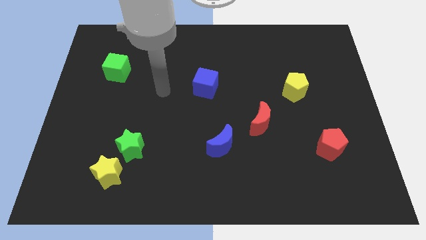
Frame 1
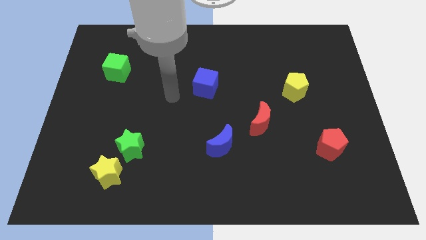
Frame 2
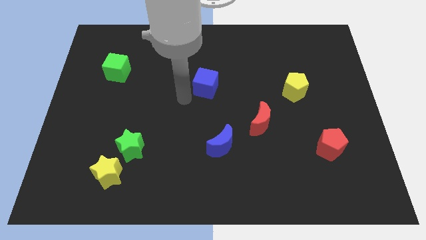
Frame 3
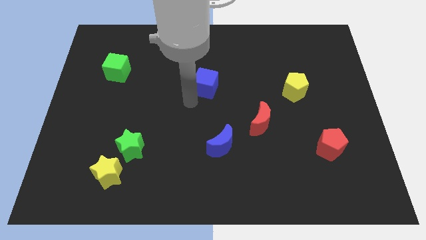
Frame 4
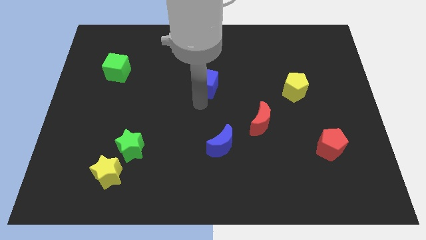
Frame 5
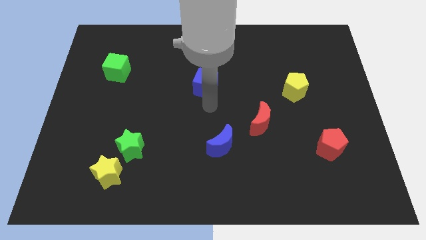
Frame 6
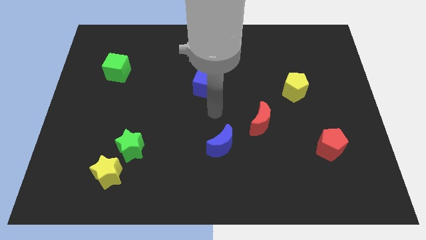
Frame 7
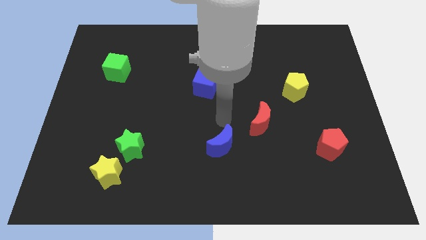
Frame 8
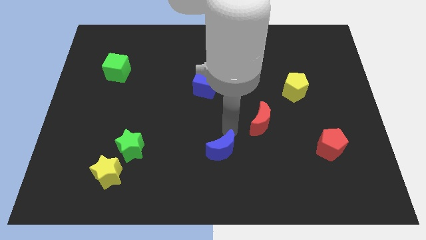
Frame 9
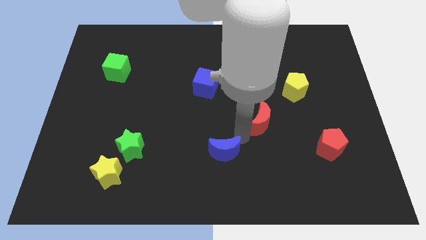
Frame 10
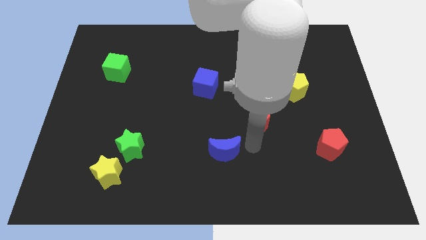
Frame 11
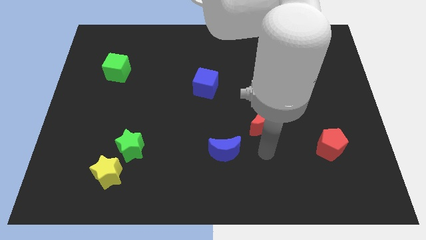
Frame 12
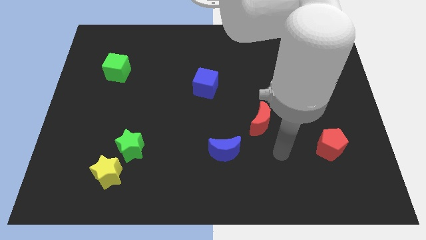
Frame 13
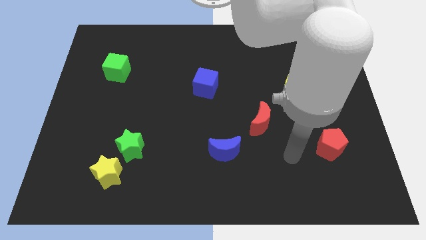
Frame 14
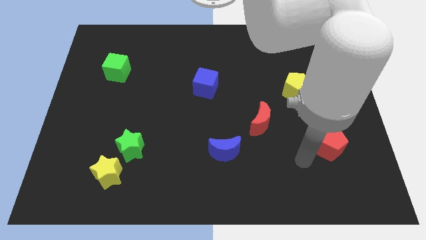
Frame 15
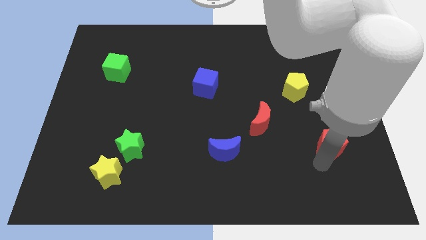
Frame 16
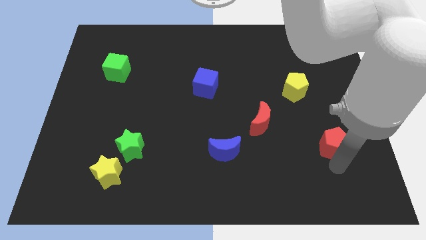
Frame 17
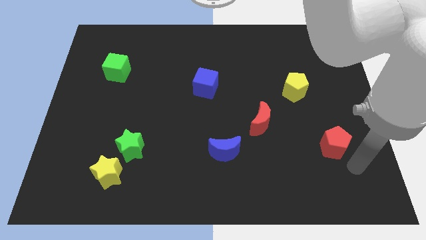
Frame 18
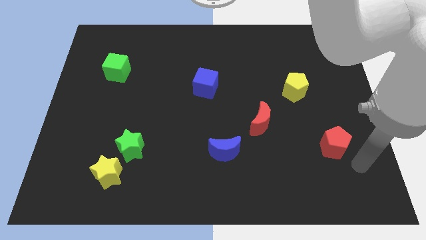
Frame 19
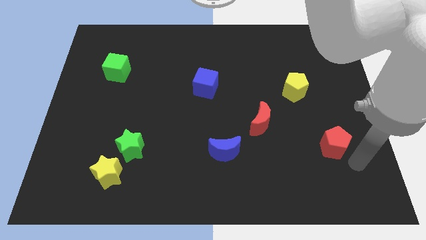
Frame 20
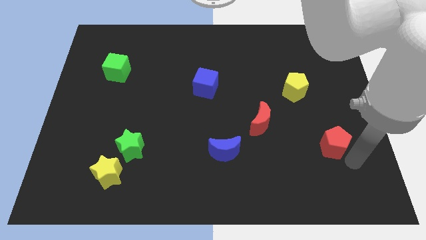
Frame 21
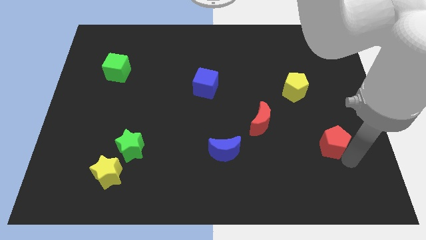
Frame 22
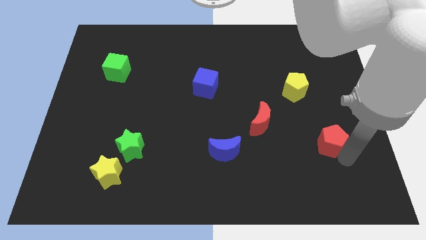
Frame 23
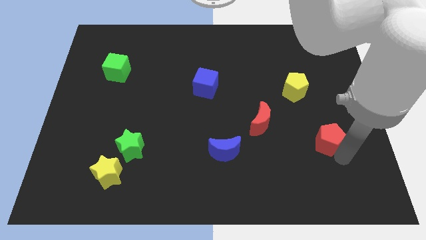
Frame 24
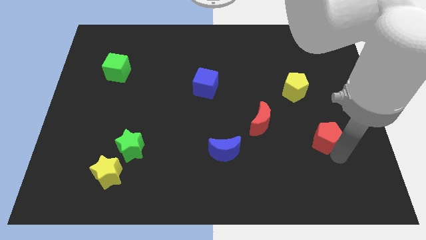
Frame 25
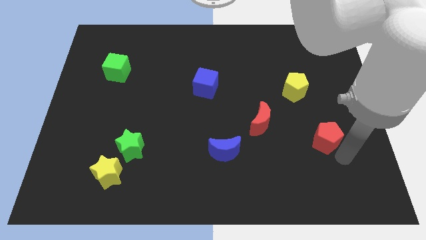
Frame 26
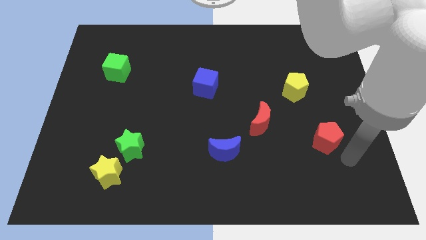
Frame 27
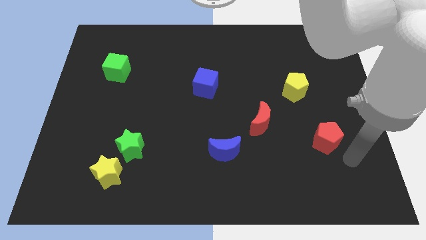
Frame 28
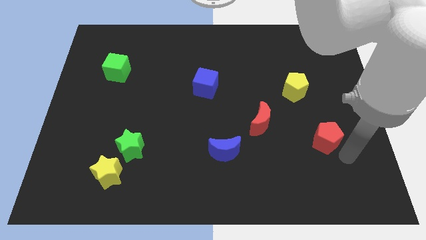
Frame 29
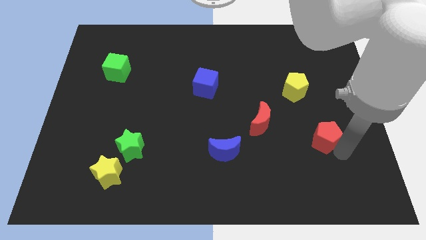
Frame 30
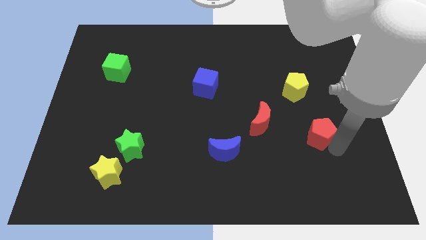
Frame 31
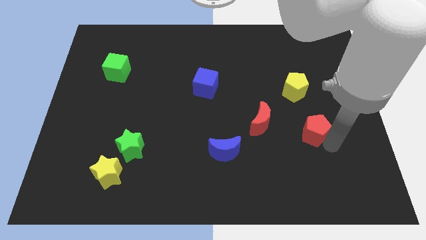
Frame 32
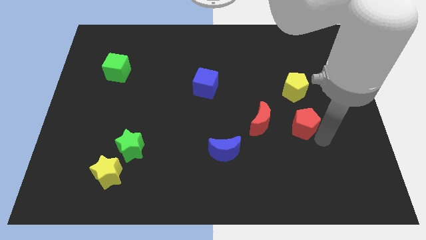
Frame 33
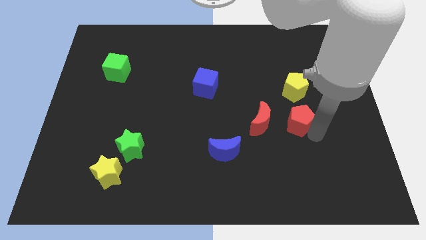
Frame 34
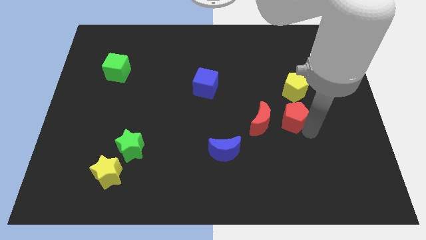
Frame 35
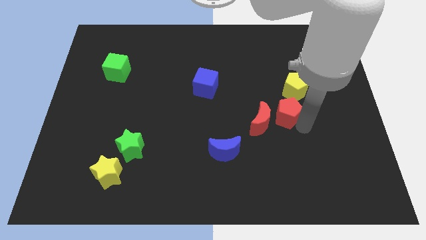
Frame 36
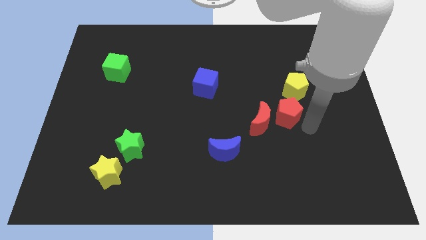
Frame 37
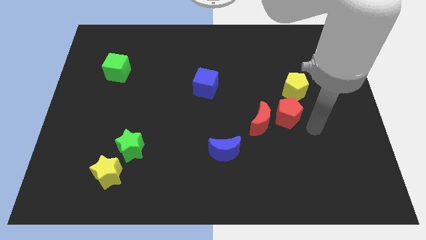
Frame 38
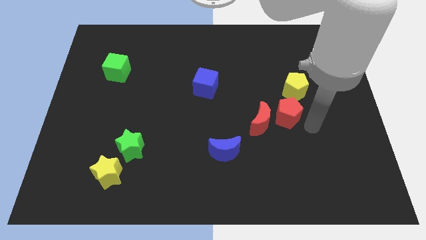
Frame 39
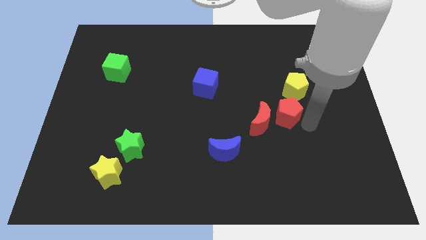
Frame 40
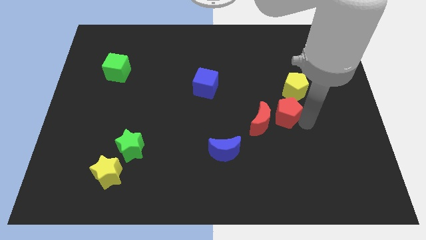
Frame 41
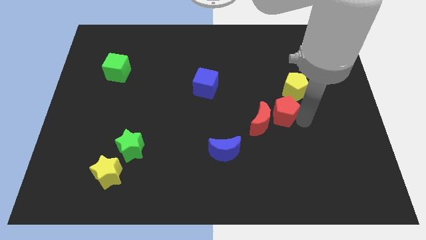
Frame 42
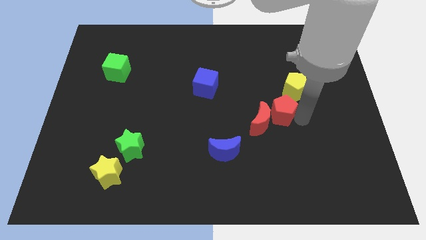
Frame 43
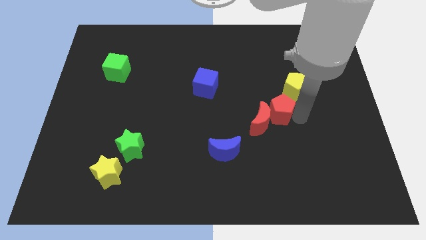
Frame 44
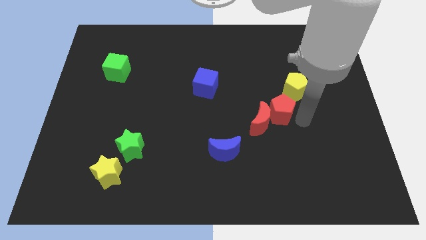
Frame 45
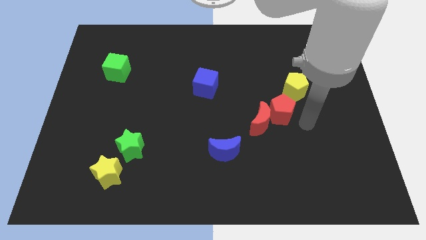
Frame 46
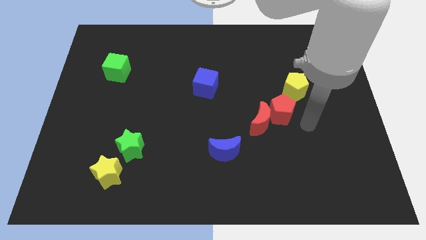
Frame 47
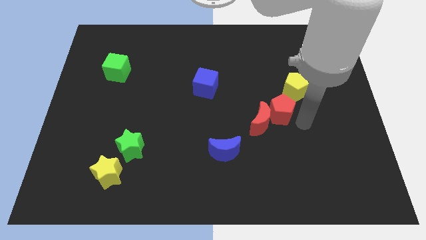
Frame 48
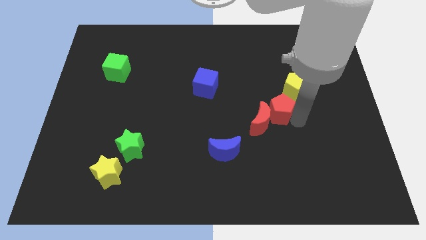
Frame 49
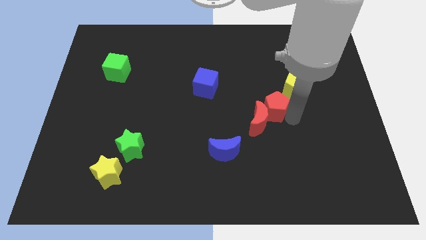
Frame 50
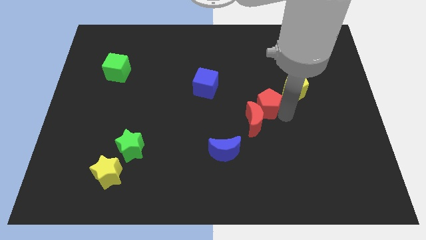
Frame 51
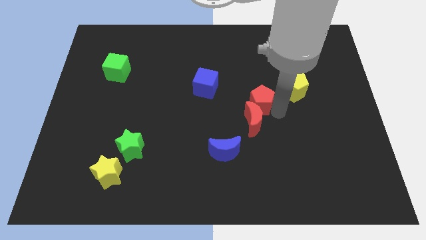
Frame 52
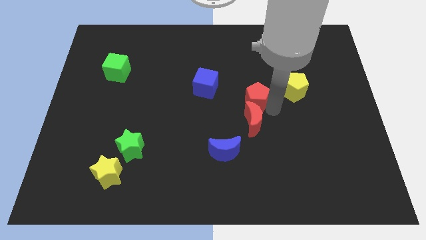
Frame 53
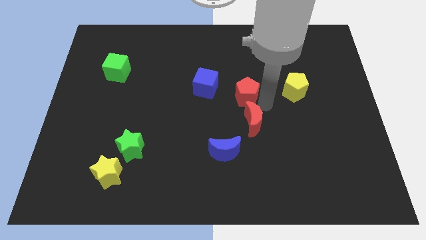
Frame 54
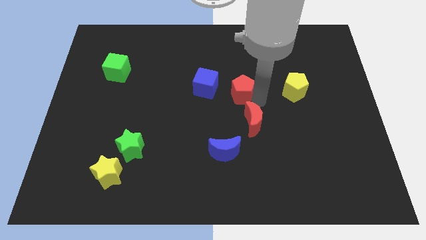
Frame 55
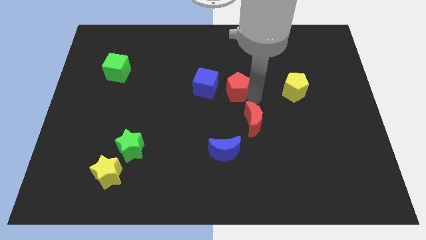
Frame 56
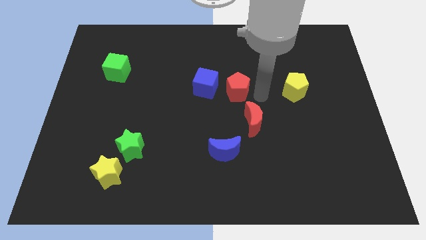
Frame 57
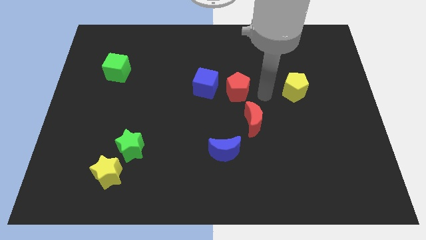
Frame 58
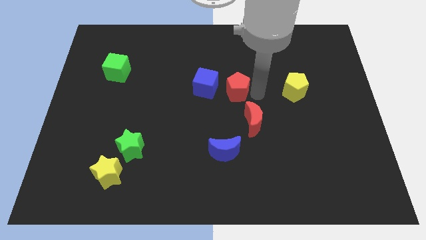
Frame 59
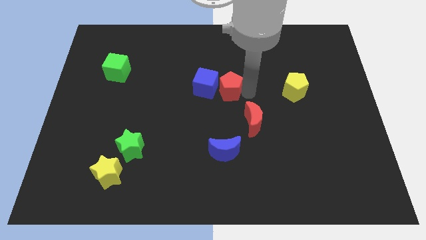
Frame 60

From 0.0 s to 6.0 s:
push the red pentagon next to the blue cube

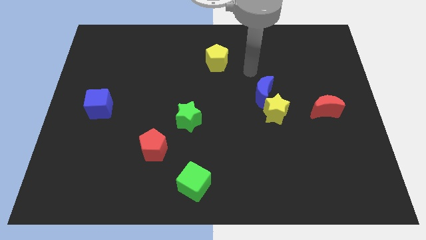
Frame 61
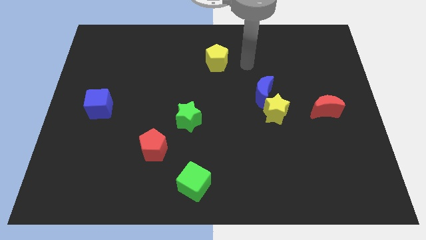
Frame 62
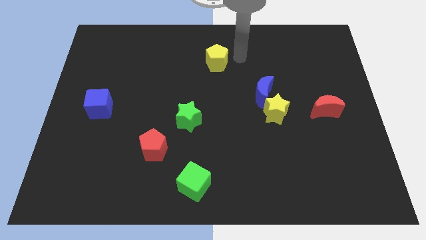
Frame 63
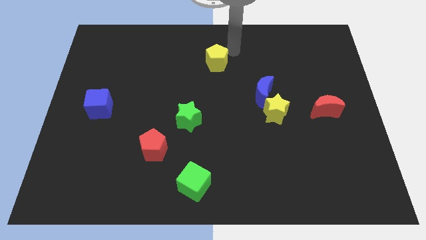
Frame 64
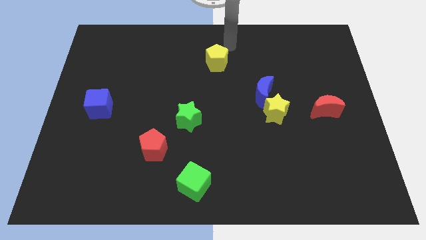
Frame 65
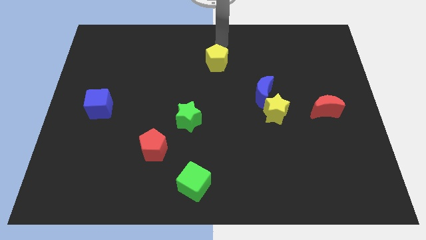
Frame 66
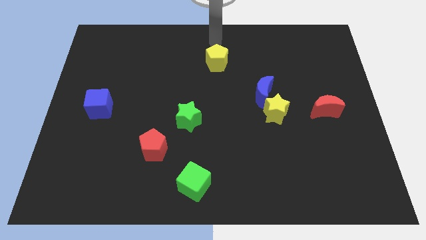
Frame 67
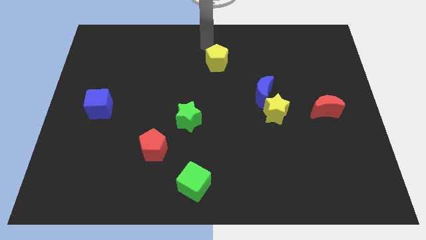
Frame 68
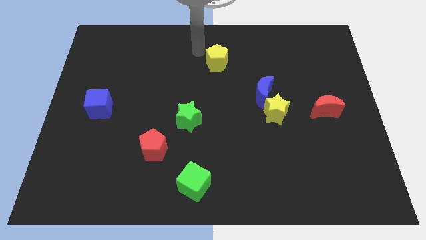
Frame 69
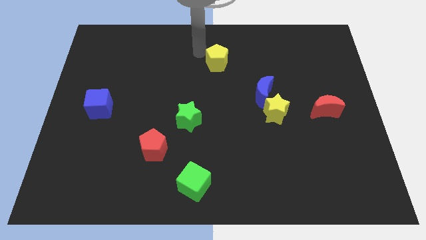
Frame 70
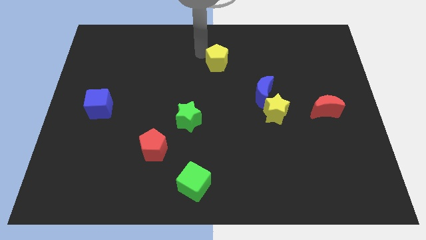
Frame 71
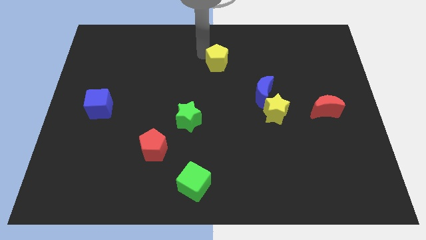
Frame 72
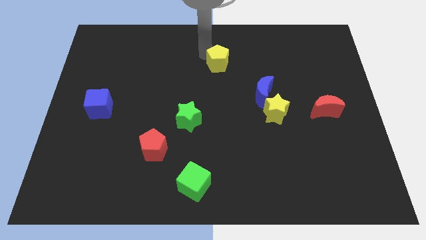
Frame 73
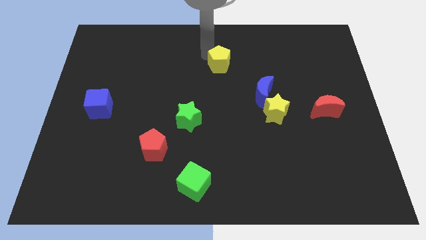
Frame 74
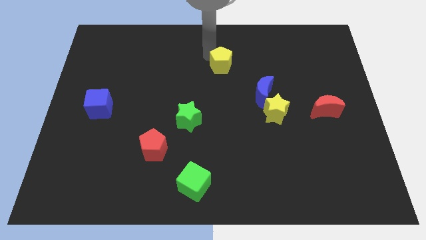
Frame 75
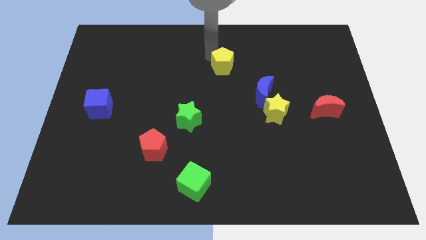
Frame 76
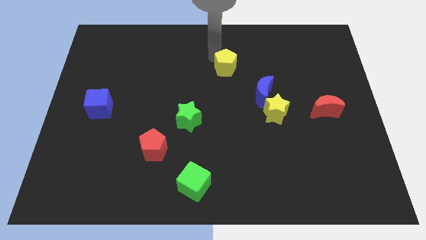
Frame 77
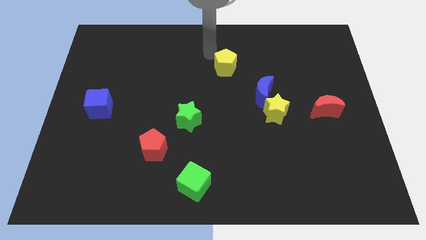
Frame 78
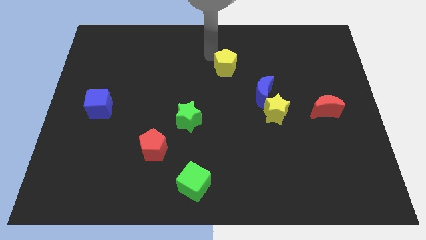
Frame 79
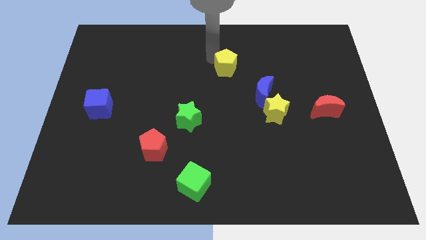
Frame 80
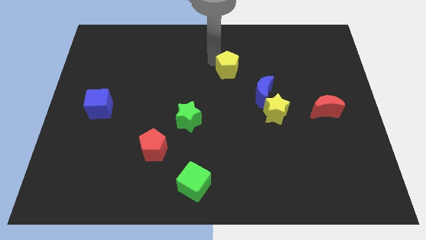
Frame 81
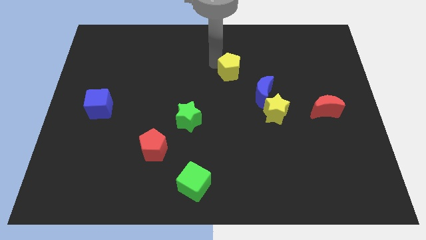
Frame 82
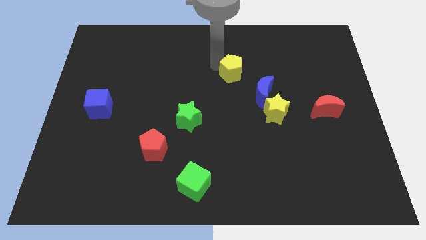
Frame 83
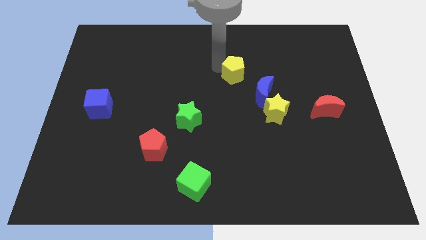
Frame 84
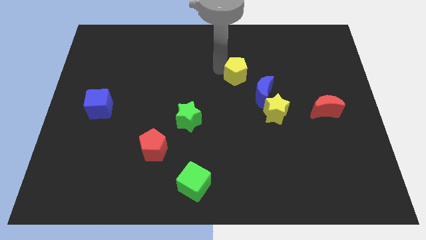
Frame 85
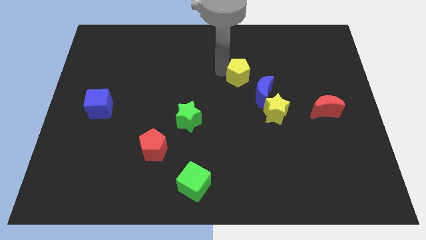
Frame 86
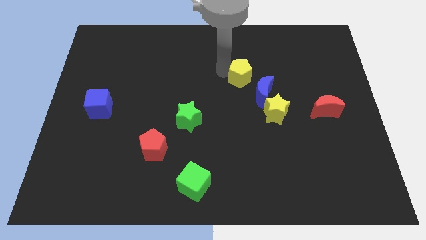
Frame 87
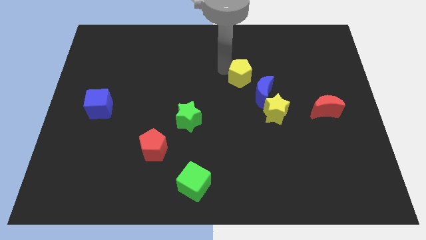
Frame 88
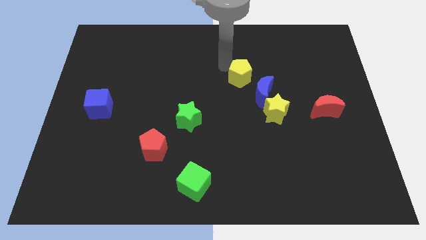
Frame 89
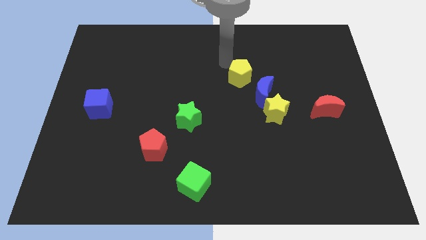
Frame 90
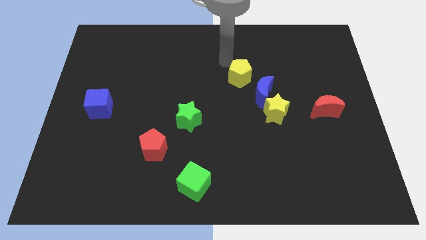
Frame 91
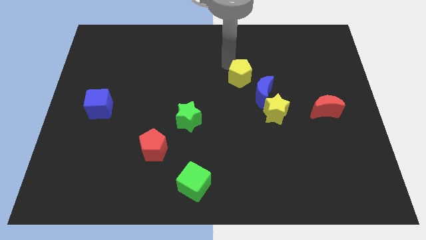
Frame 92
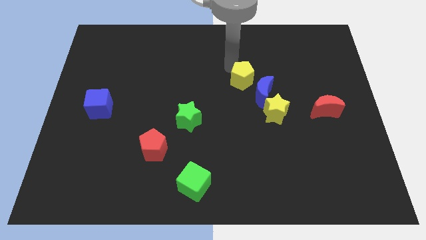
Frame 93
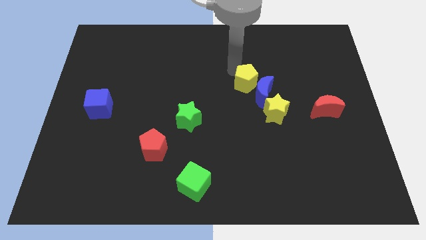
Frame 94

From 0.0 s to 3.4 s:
put the yellow pentagon to the blue moon
